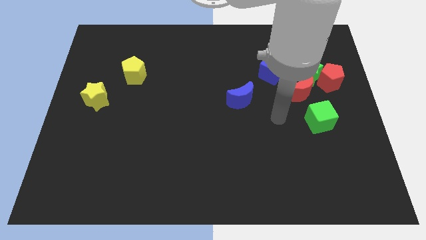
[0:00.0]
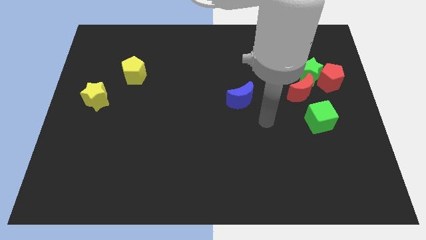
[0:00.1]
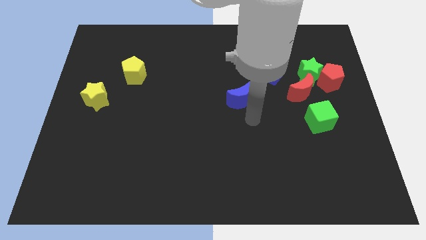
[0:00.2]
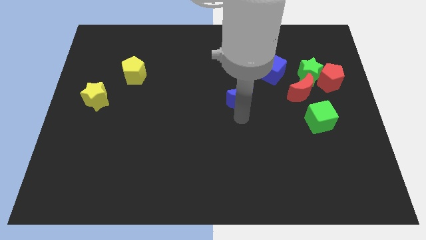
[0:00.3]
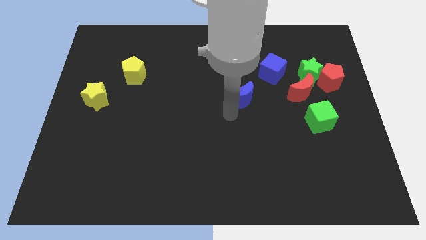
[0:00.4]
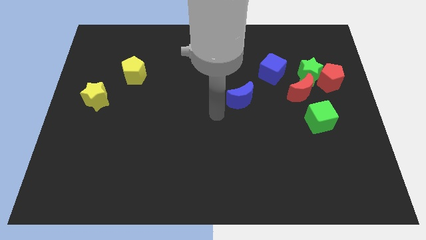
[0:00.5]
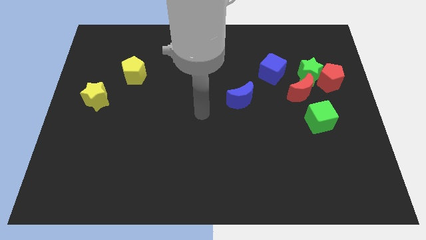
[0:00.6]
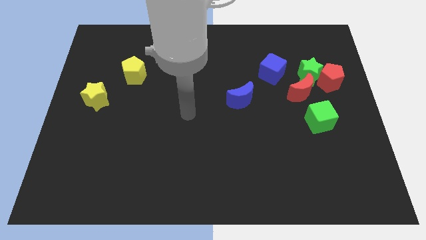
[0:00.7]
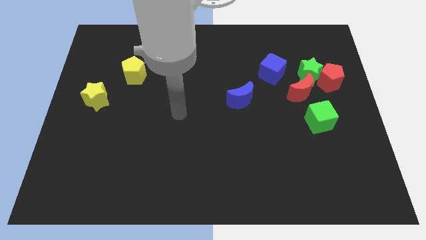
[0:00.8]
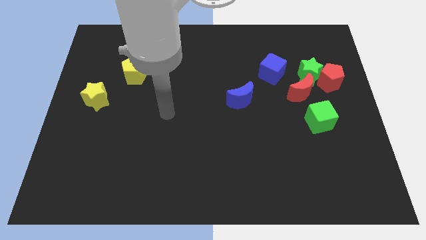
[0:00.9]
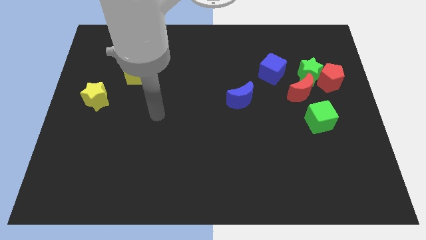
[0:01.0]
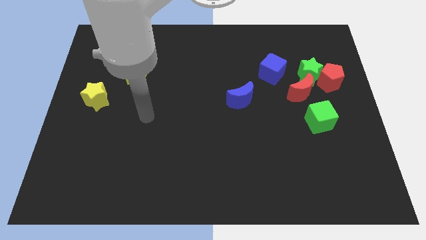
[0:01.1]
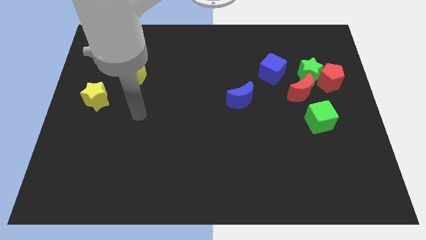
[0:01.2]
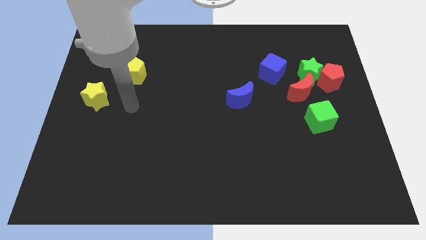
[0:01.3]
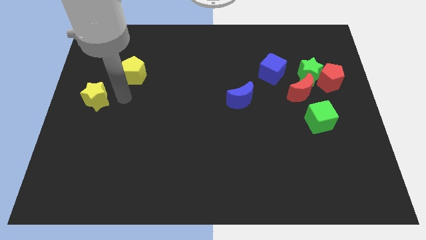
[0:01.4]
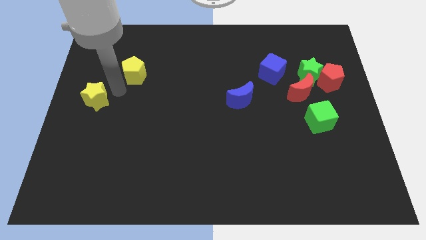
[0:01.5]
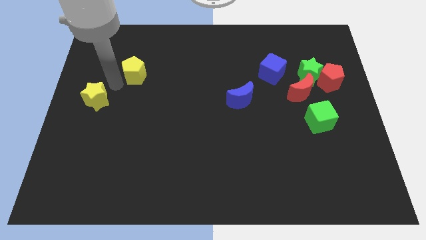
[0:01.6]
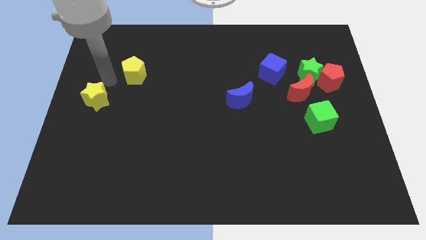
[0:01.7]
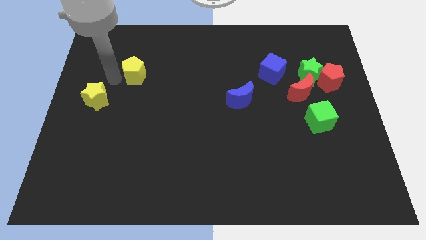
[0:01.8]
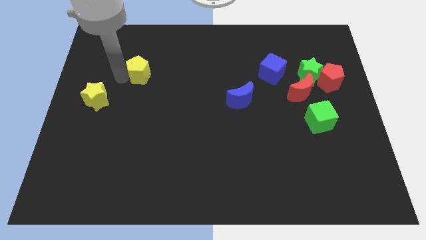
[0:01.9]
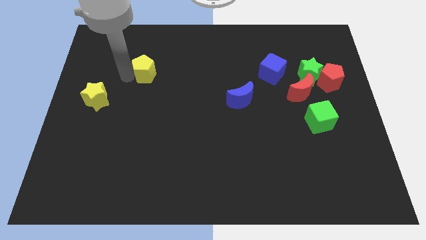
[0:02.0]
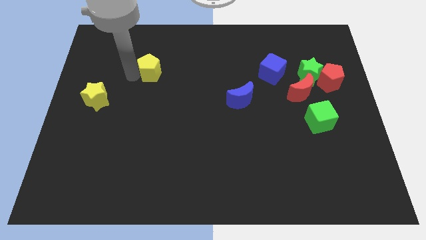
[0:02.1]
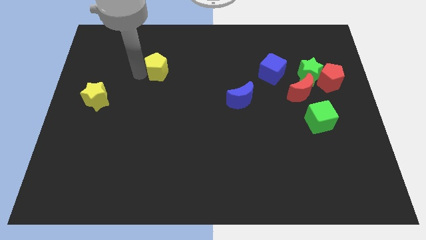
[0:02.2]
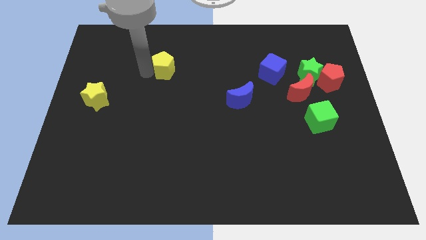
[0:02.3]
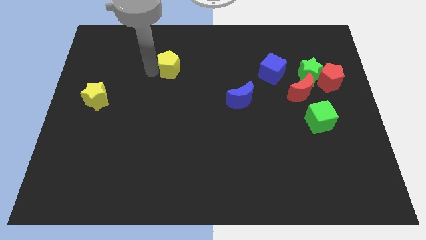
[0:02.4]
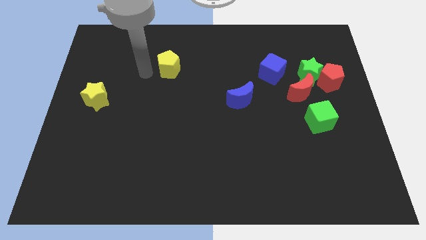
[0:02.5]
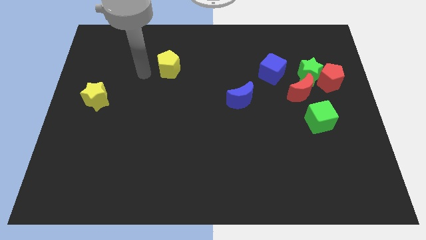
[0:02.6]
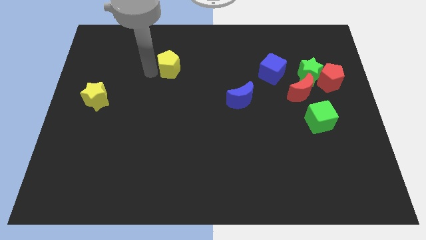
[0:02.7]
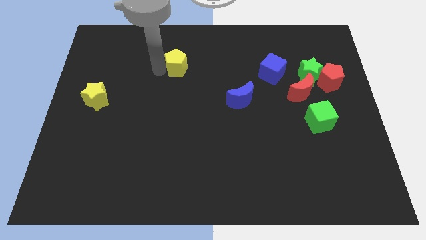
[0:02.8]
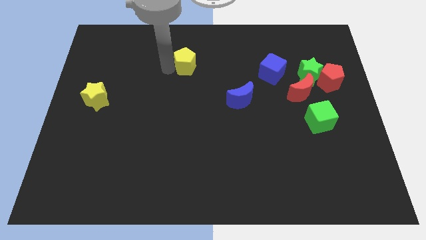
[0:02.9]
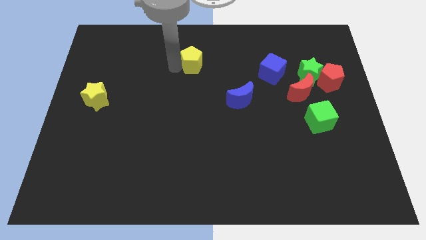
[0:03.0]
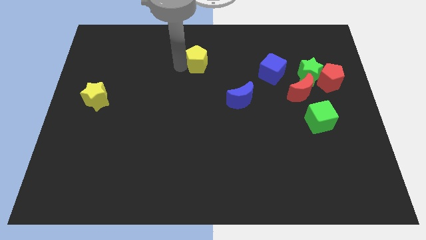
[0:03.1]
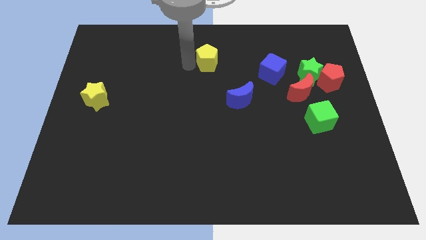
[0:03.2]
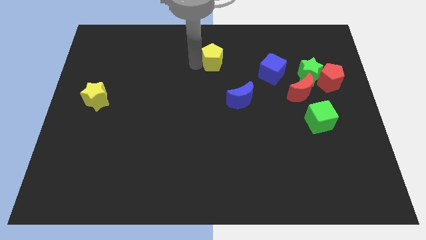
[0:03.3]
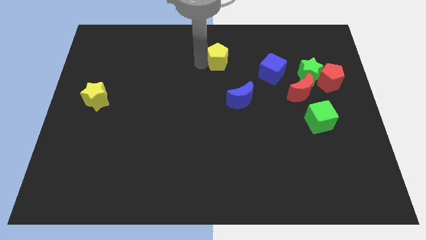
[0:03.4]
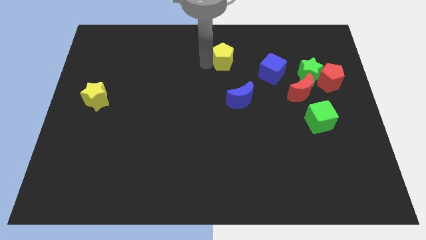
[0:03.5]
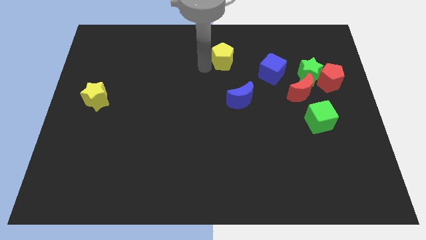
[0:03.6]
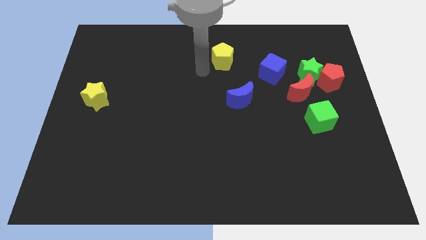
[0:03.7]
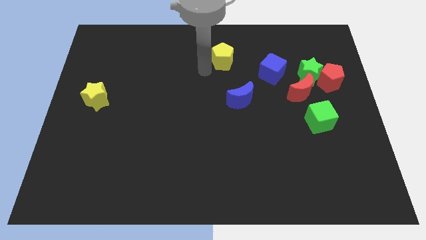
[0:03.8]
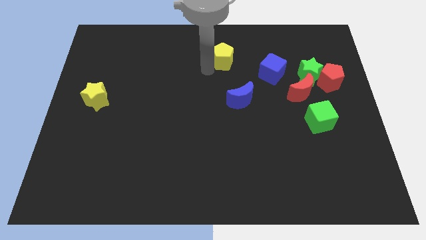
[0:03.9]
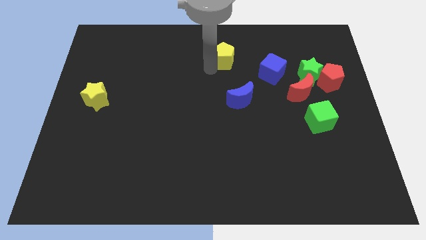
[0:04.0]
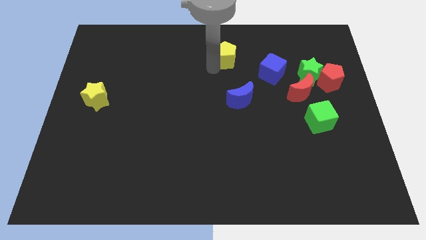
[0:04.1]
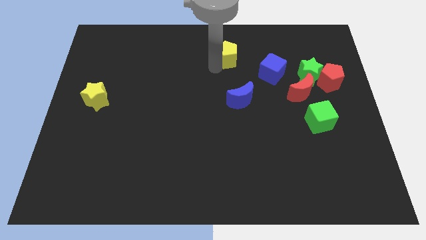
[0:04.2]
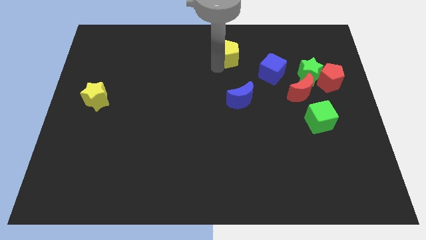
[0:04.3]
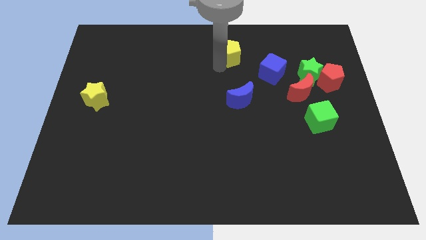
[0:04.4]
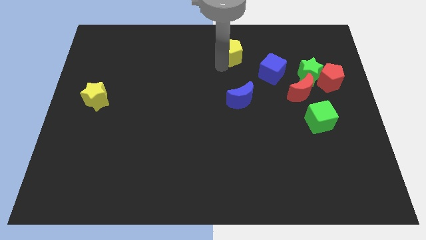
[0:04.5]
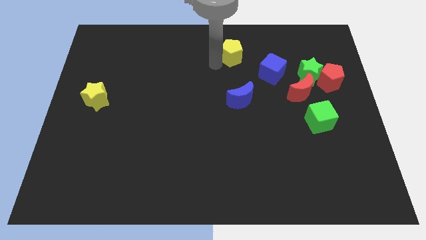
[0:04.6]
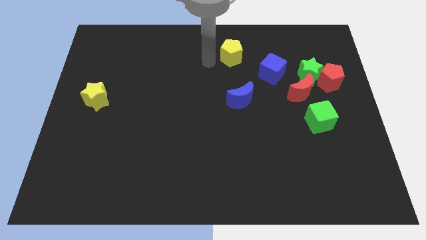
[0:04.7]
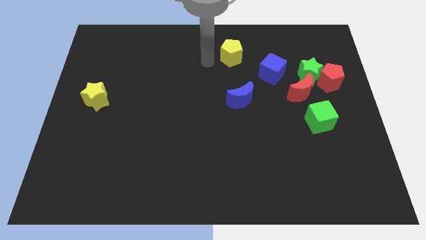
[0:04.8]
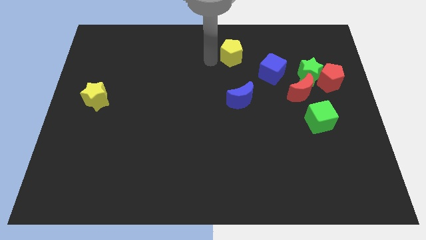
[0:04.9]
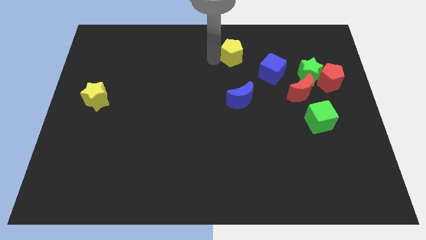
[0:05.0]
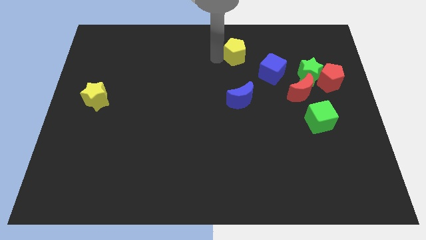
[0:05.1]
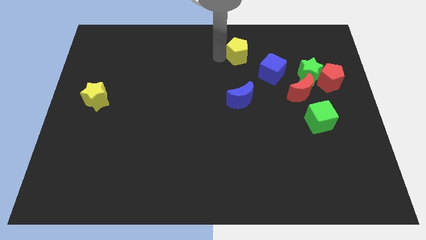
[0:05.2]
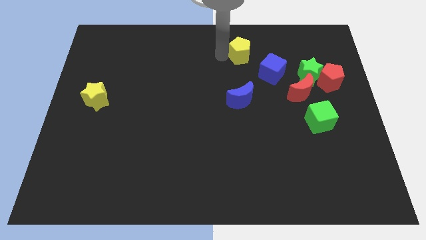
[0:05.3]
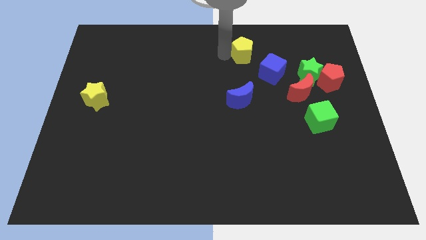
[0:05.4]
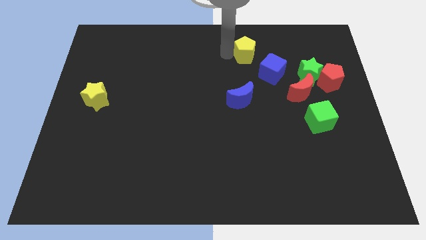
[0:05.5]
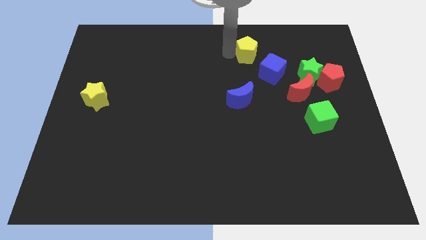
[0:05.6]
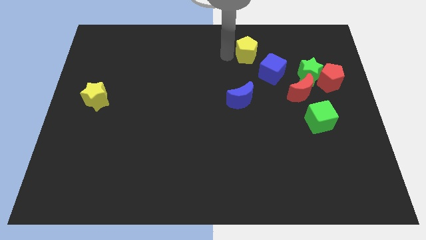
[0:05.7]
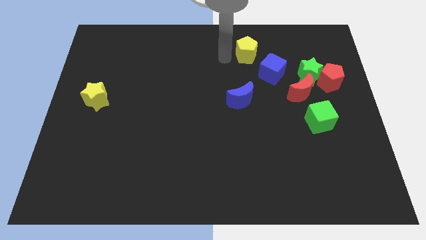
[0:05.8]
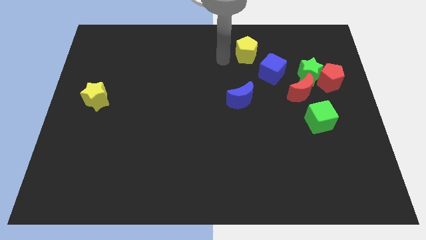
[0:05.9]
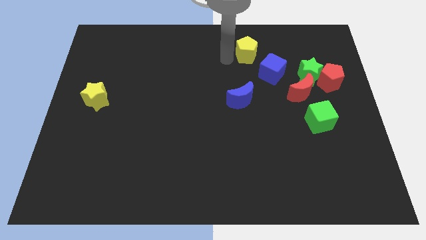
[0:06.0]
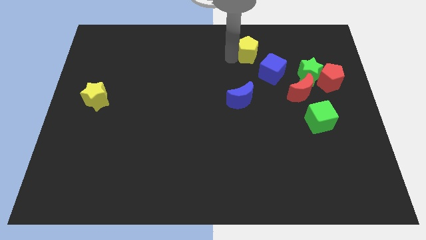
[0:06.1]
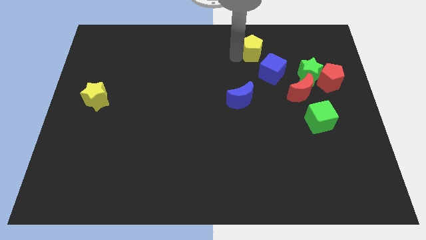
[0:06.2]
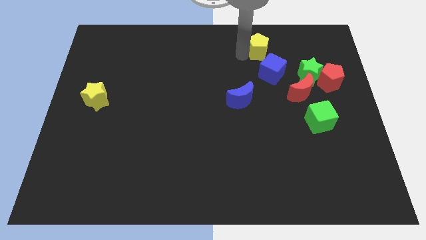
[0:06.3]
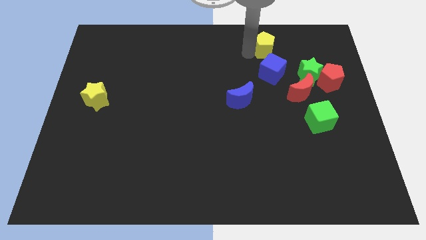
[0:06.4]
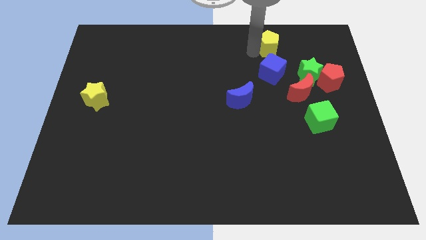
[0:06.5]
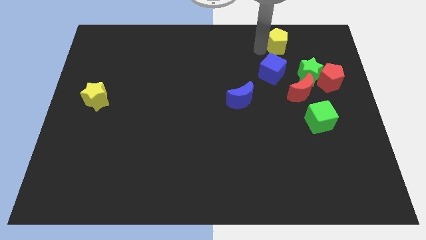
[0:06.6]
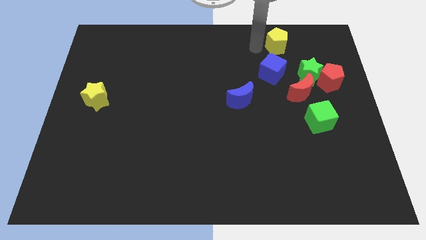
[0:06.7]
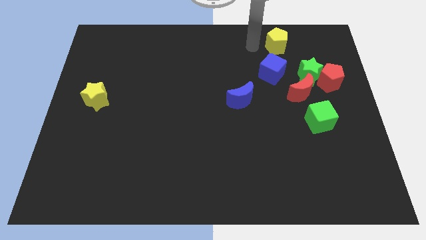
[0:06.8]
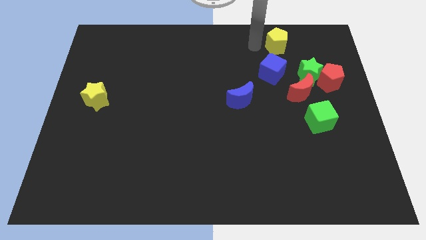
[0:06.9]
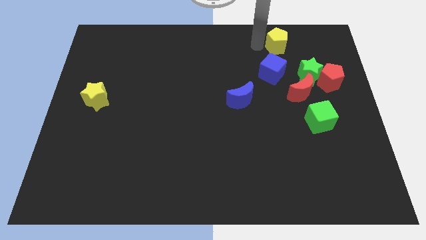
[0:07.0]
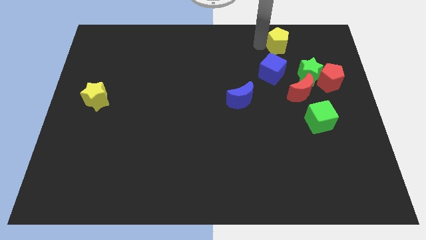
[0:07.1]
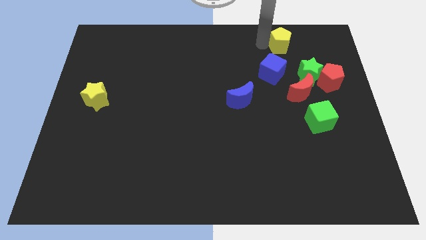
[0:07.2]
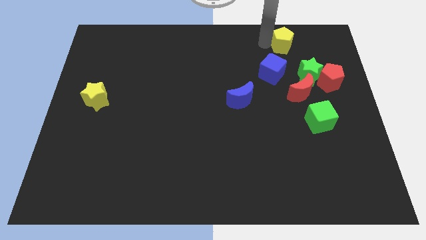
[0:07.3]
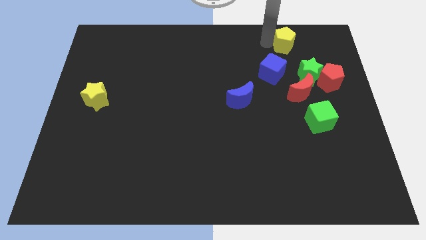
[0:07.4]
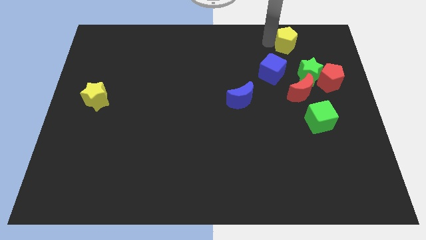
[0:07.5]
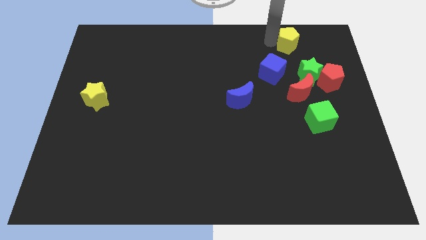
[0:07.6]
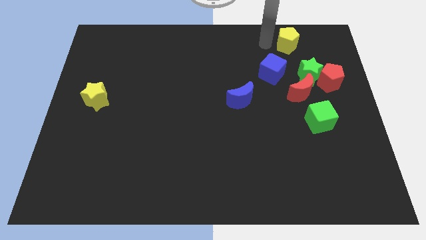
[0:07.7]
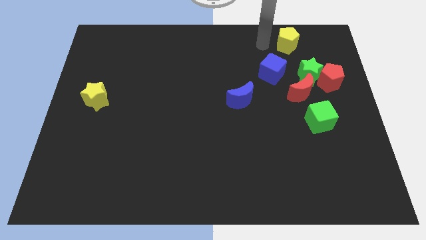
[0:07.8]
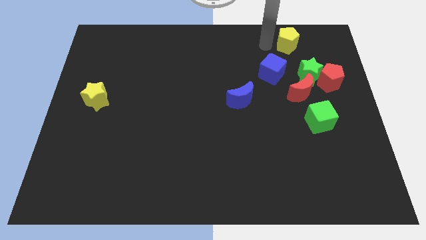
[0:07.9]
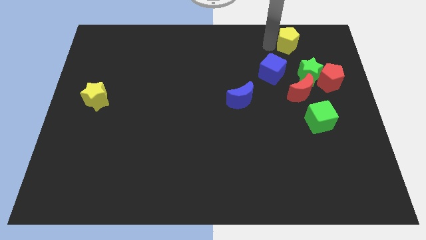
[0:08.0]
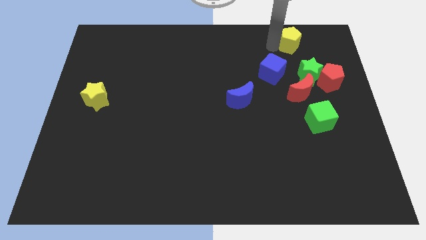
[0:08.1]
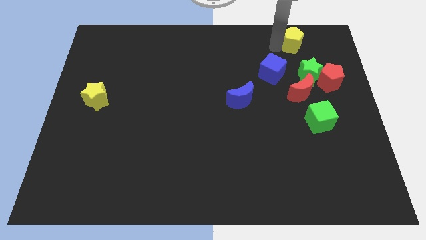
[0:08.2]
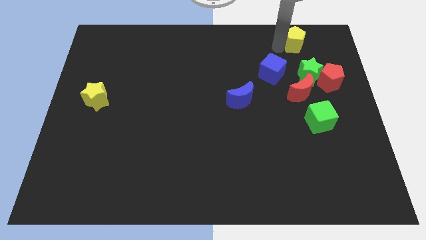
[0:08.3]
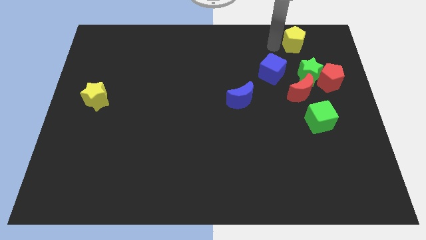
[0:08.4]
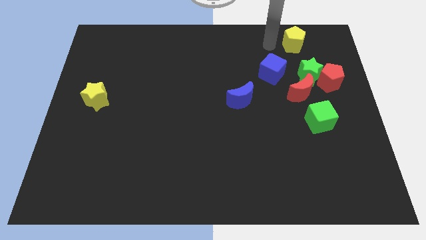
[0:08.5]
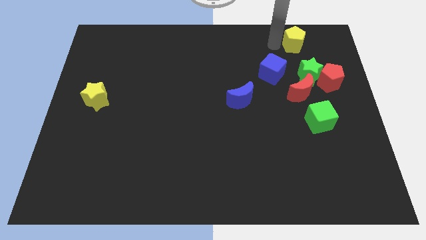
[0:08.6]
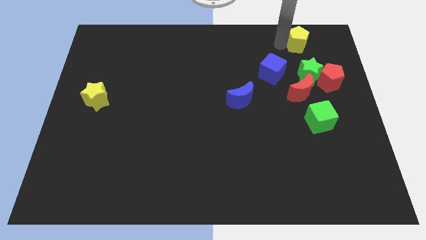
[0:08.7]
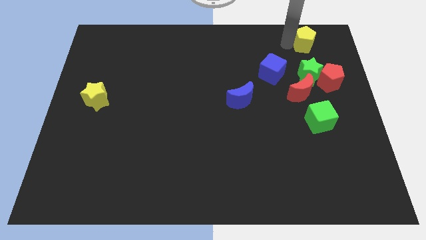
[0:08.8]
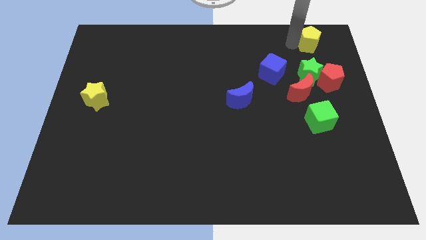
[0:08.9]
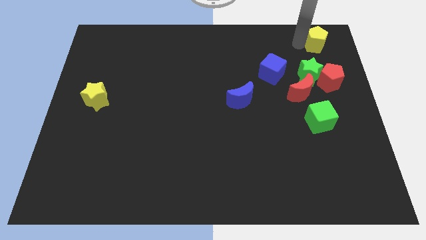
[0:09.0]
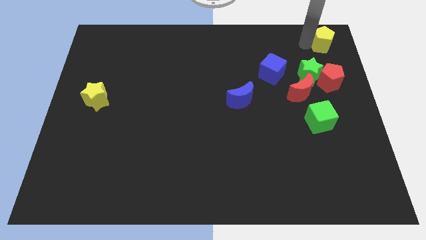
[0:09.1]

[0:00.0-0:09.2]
put the yellow pentagon to the upper right corner
